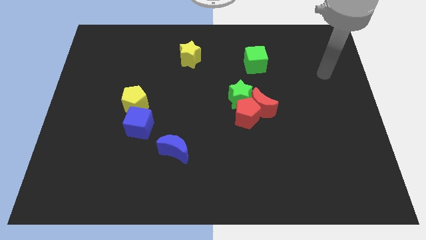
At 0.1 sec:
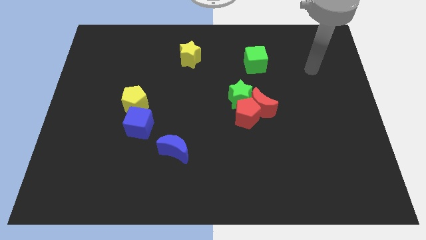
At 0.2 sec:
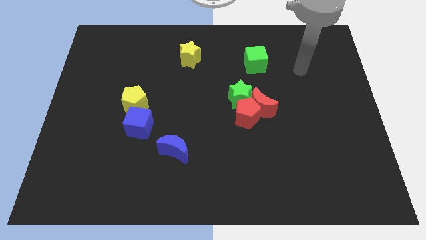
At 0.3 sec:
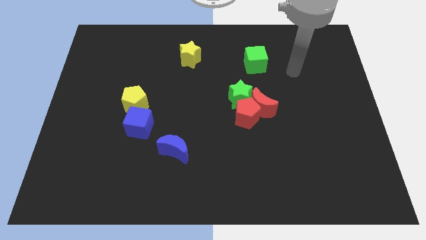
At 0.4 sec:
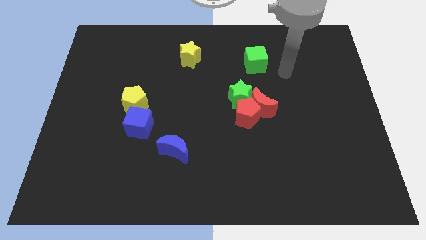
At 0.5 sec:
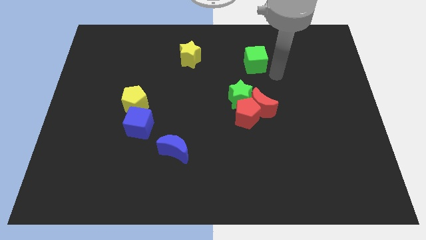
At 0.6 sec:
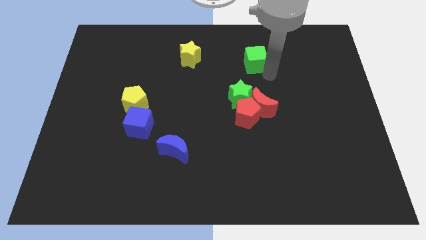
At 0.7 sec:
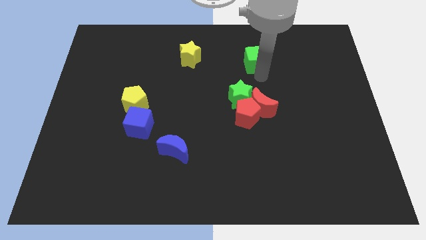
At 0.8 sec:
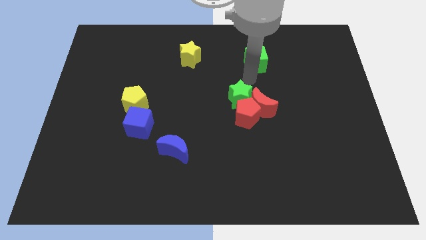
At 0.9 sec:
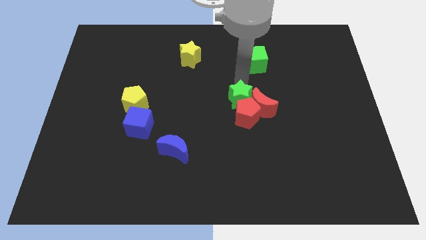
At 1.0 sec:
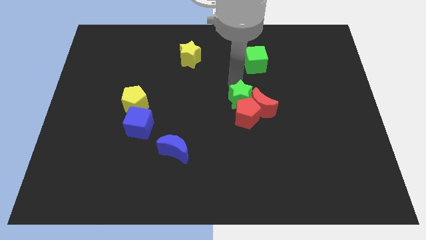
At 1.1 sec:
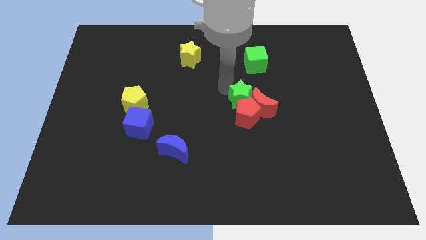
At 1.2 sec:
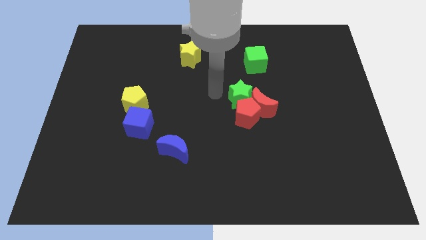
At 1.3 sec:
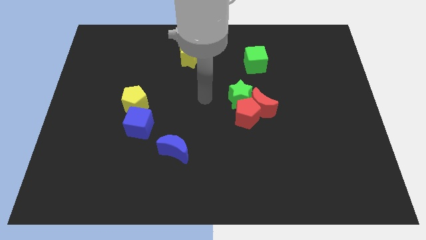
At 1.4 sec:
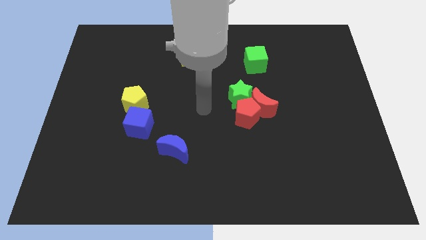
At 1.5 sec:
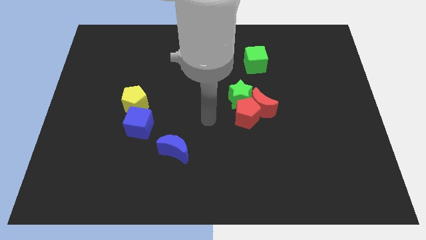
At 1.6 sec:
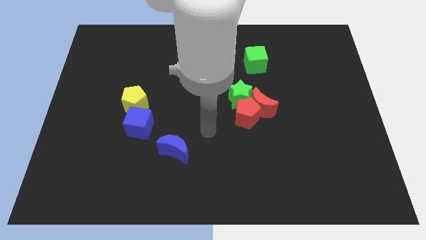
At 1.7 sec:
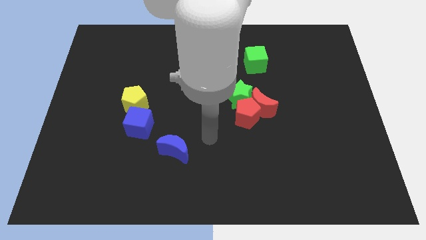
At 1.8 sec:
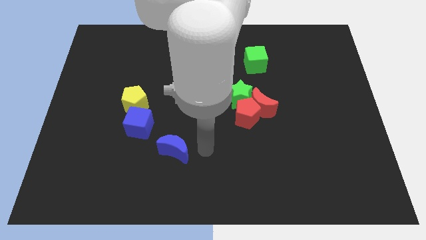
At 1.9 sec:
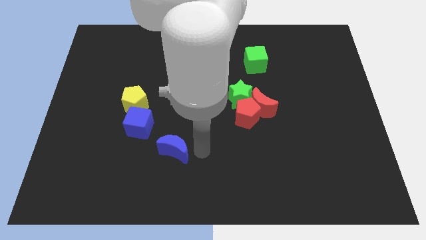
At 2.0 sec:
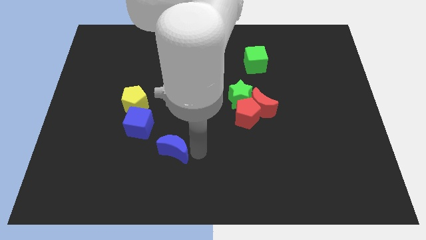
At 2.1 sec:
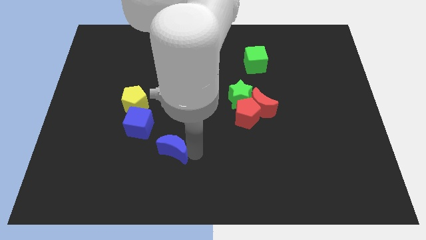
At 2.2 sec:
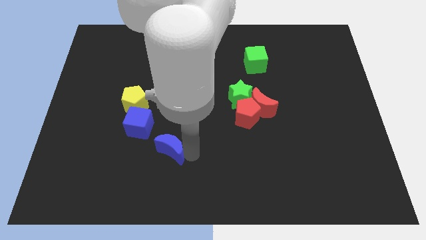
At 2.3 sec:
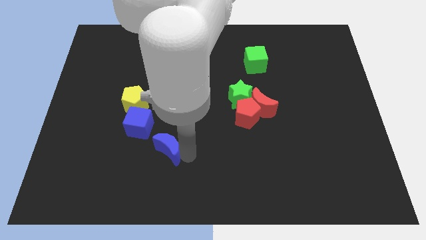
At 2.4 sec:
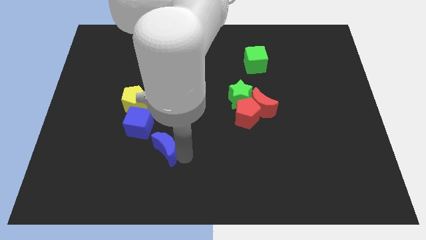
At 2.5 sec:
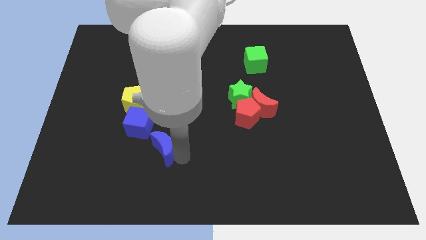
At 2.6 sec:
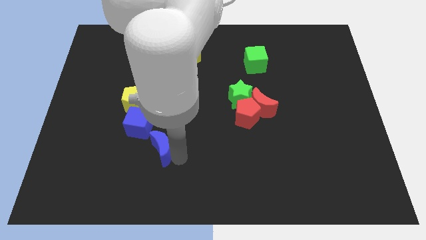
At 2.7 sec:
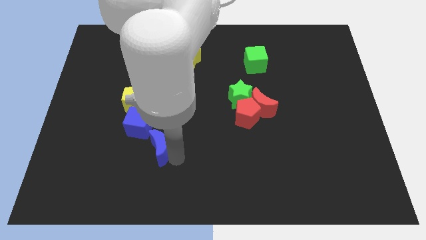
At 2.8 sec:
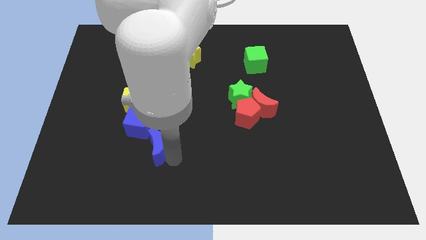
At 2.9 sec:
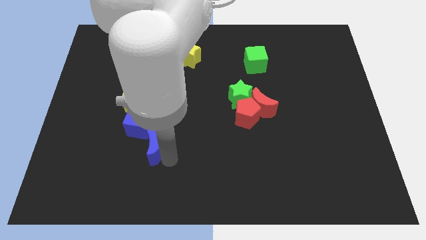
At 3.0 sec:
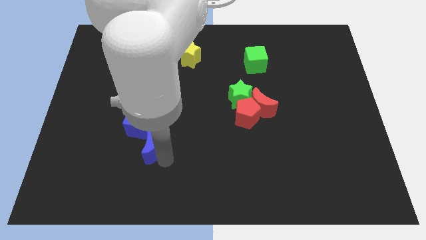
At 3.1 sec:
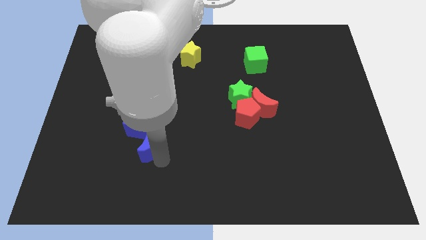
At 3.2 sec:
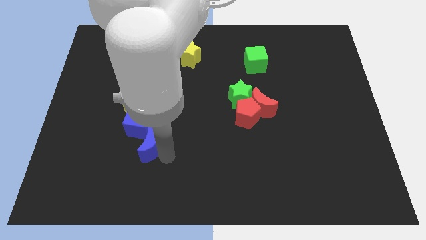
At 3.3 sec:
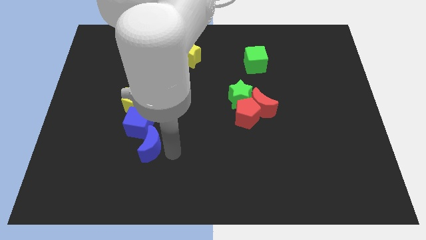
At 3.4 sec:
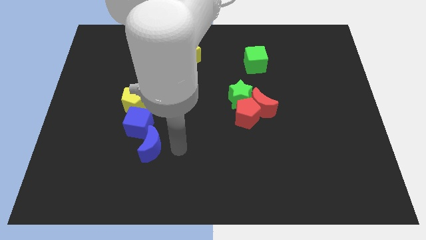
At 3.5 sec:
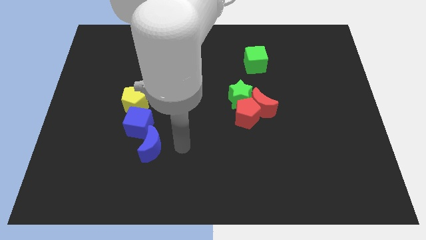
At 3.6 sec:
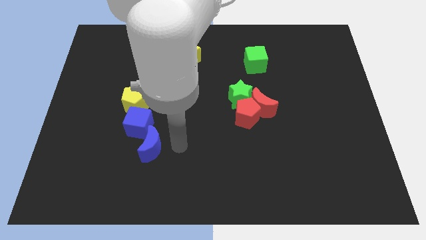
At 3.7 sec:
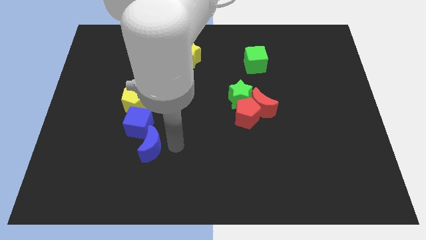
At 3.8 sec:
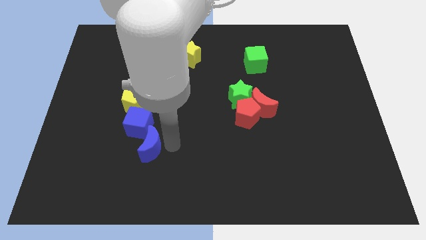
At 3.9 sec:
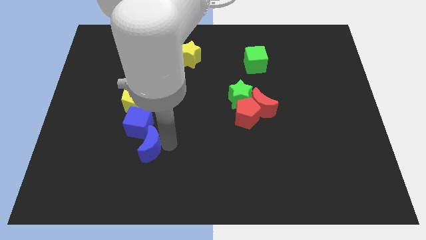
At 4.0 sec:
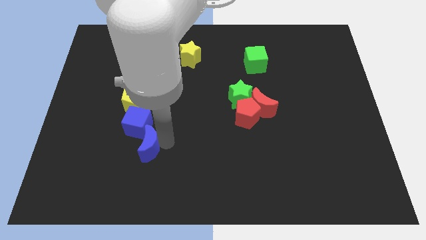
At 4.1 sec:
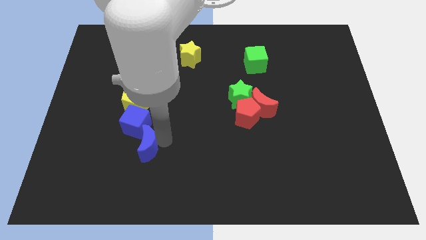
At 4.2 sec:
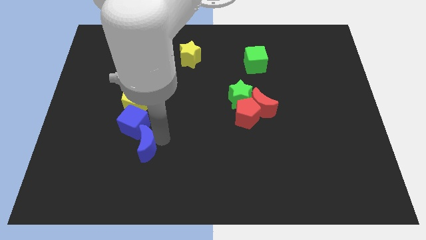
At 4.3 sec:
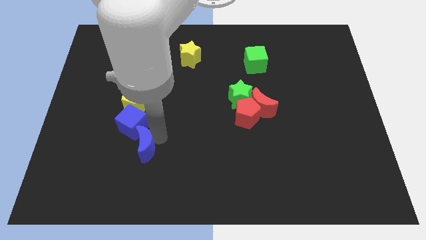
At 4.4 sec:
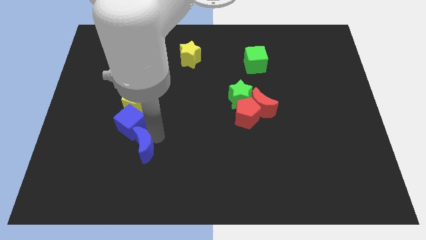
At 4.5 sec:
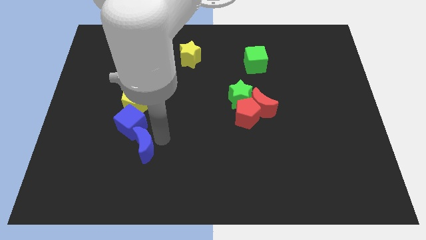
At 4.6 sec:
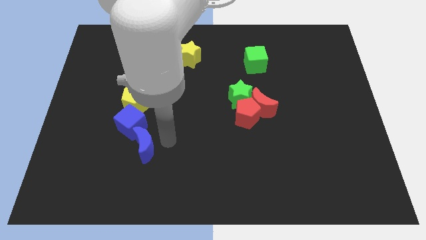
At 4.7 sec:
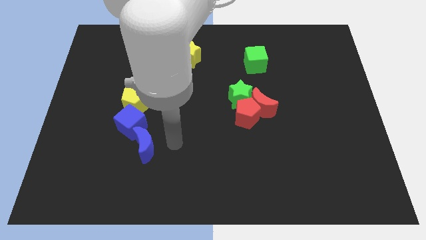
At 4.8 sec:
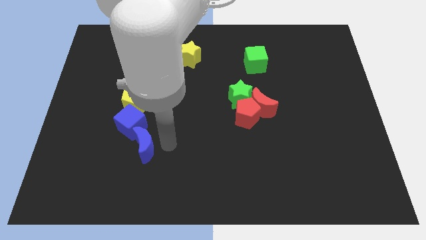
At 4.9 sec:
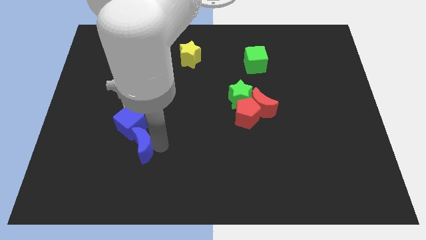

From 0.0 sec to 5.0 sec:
move the blue moon a bit left

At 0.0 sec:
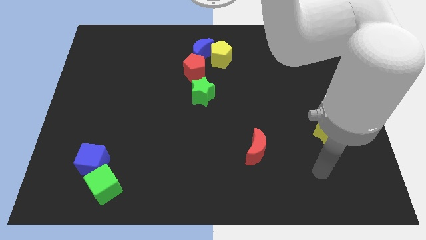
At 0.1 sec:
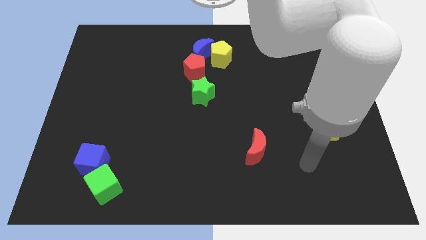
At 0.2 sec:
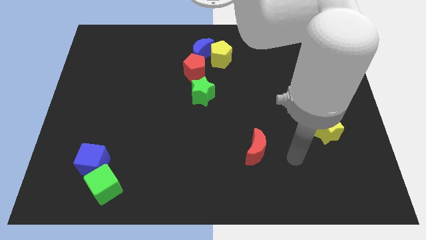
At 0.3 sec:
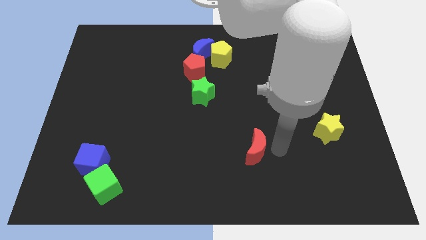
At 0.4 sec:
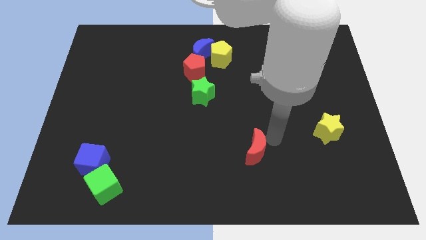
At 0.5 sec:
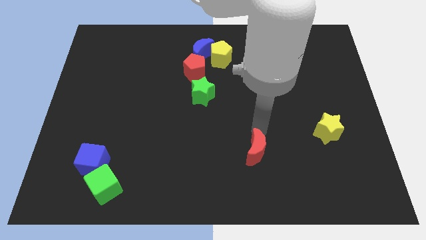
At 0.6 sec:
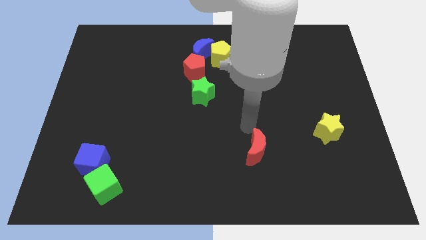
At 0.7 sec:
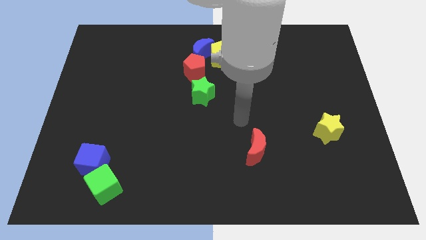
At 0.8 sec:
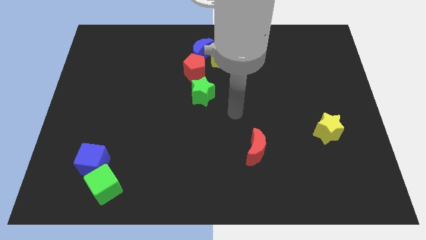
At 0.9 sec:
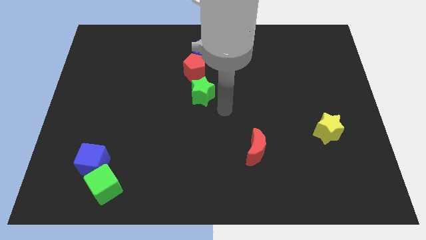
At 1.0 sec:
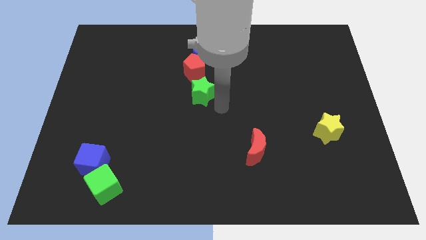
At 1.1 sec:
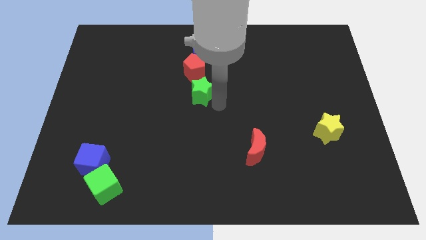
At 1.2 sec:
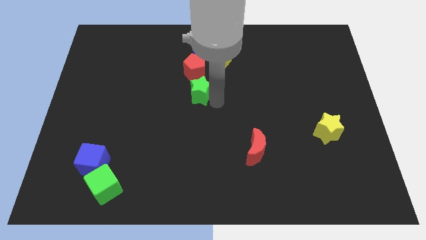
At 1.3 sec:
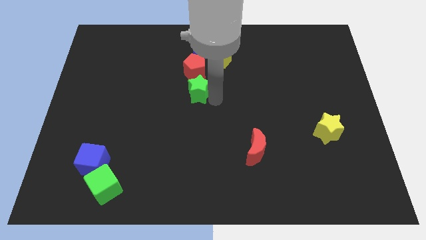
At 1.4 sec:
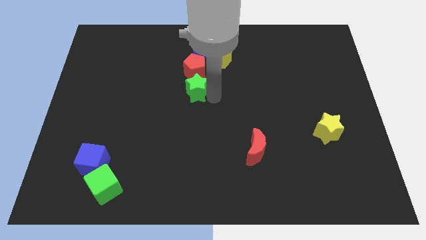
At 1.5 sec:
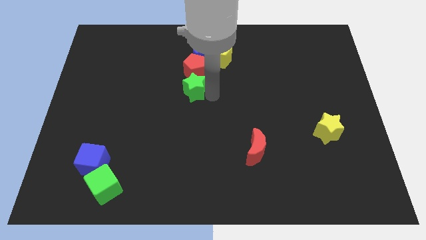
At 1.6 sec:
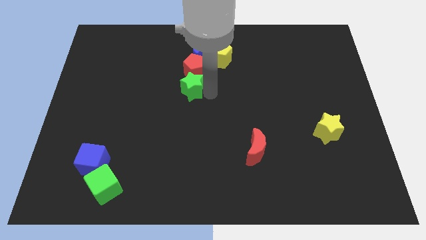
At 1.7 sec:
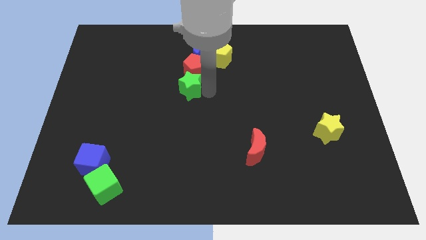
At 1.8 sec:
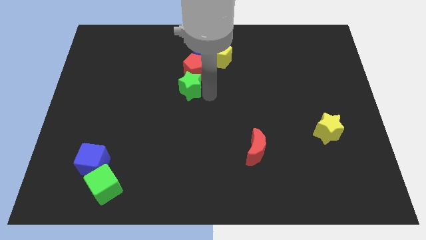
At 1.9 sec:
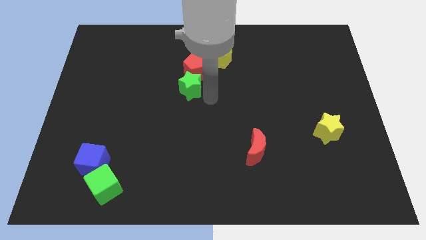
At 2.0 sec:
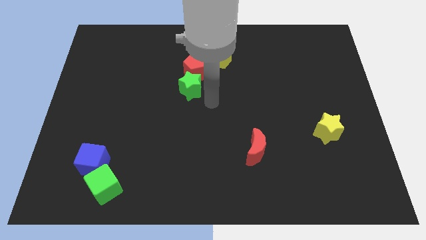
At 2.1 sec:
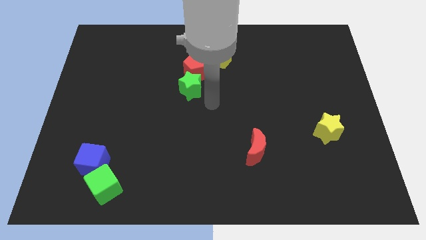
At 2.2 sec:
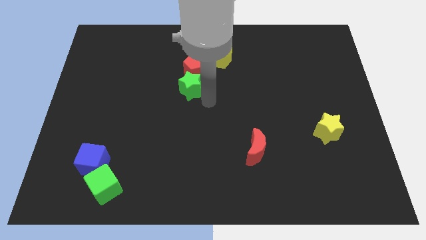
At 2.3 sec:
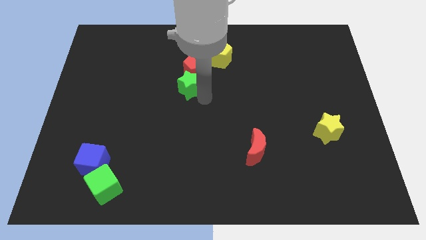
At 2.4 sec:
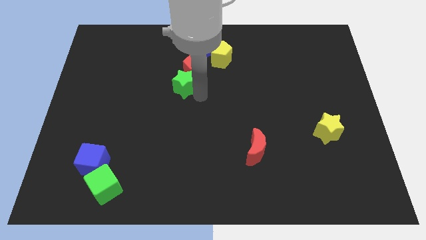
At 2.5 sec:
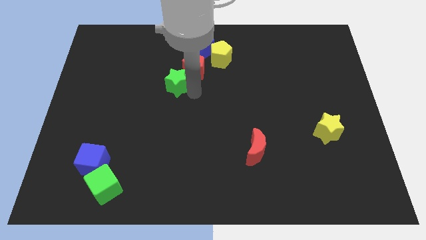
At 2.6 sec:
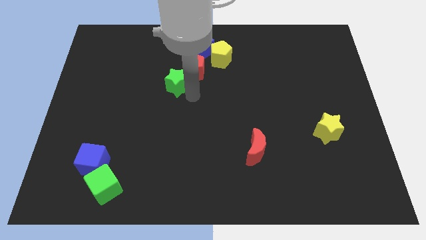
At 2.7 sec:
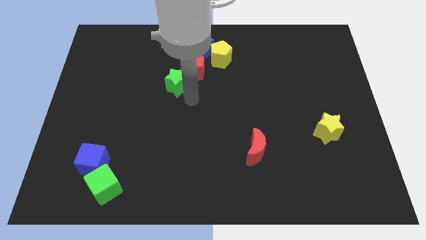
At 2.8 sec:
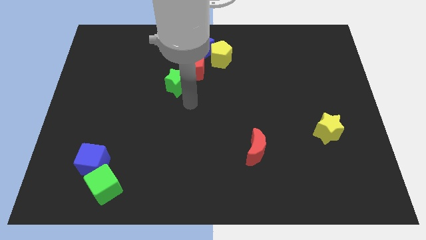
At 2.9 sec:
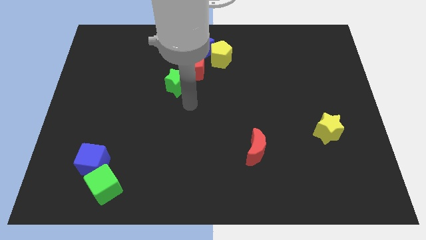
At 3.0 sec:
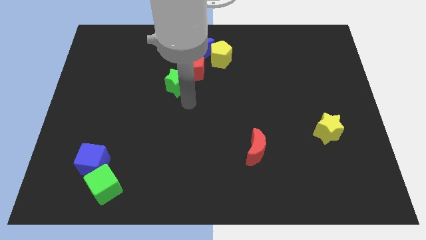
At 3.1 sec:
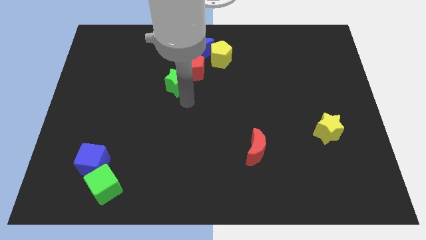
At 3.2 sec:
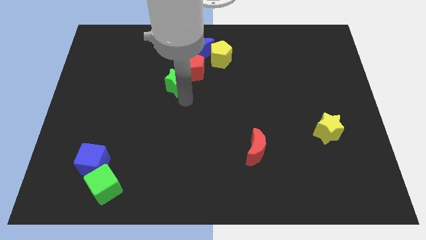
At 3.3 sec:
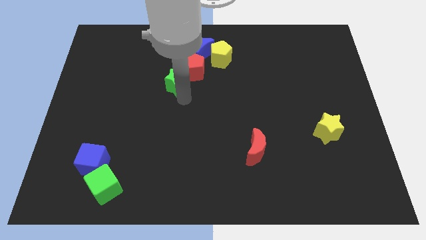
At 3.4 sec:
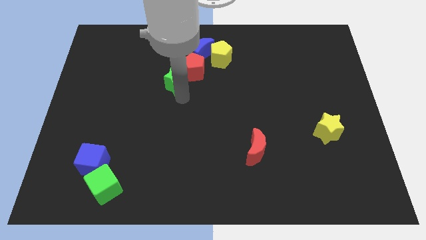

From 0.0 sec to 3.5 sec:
slide the green star up and left diagonally slightly
